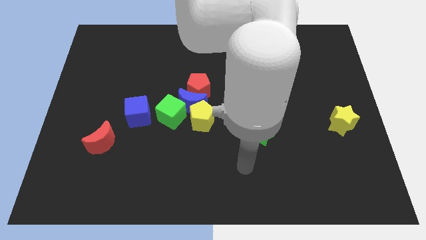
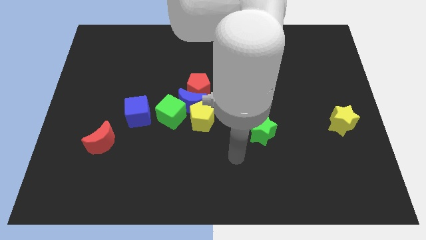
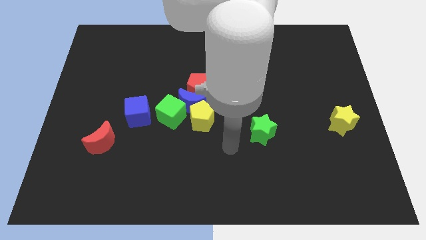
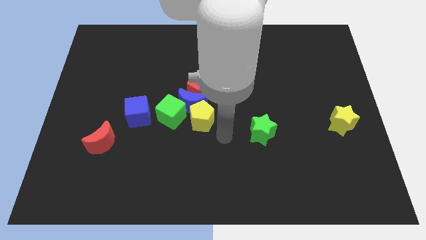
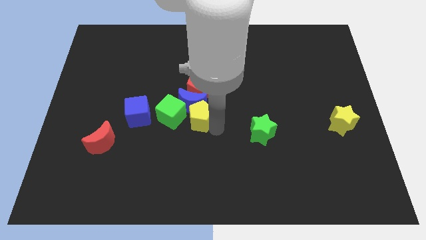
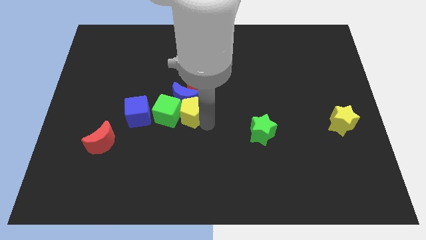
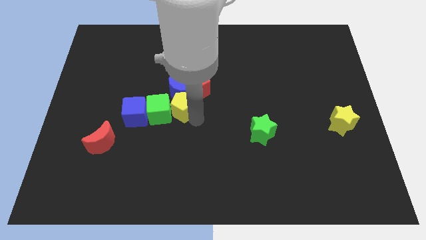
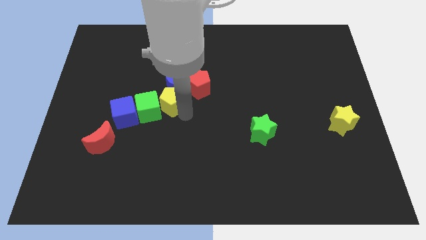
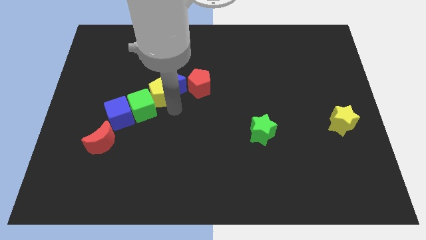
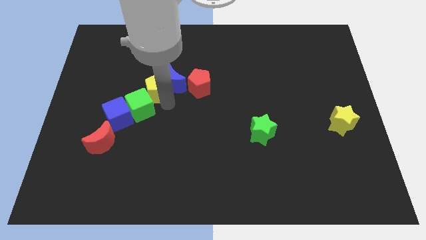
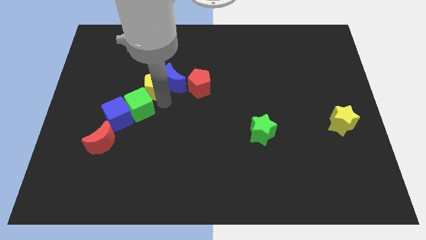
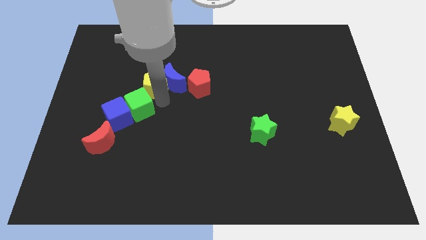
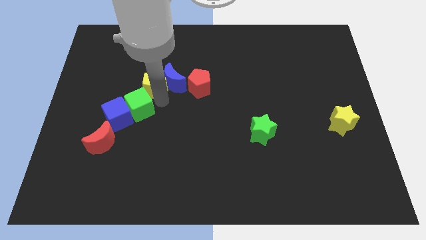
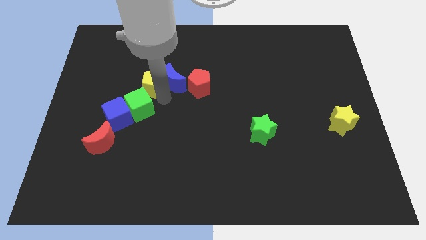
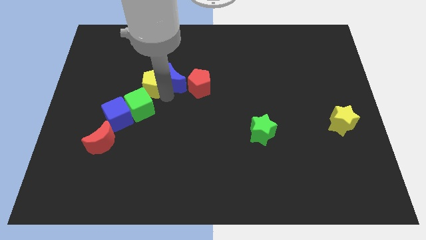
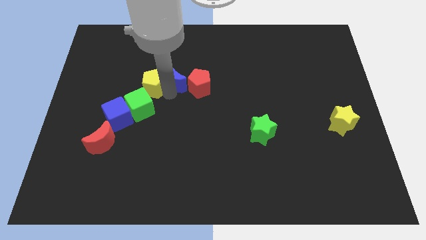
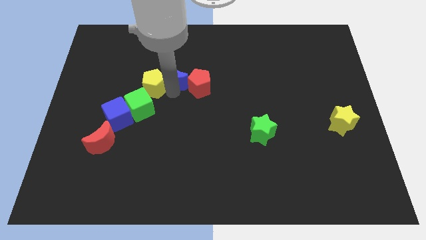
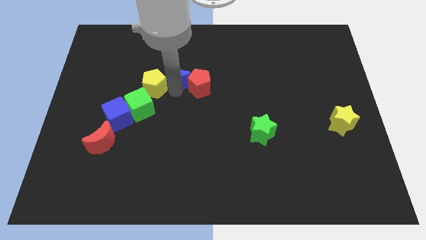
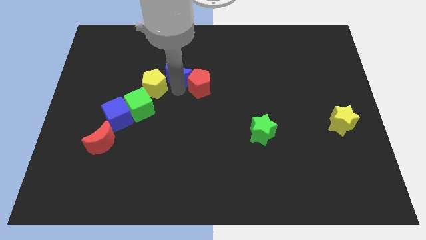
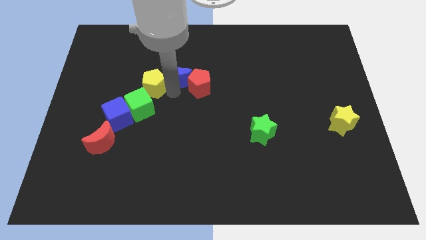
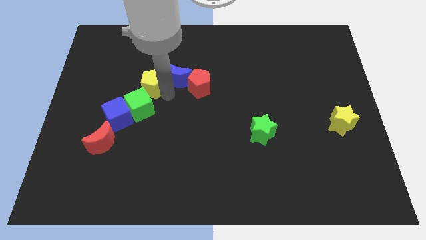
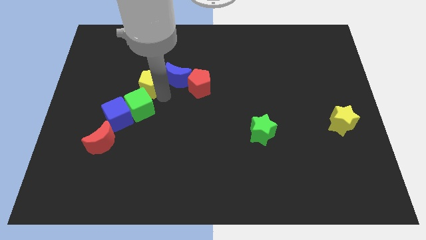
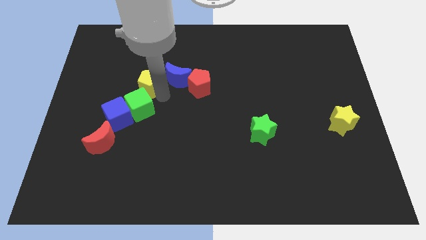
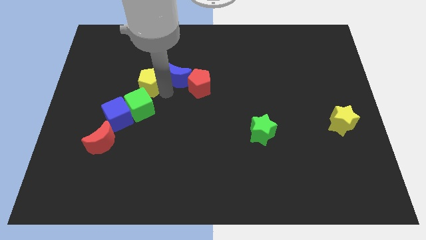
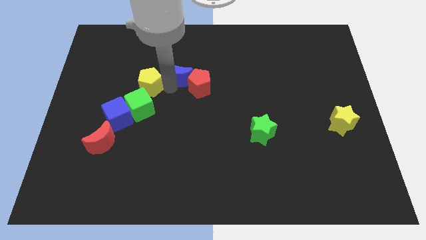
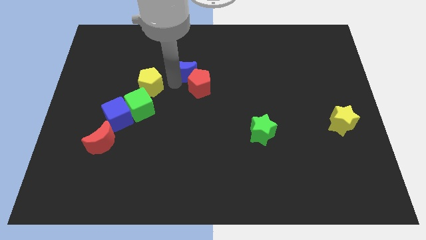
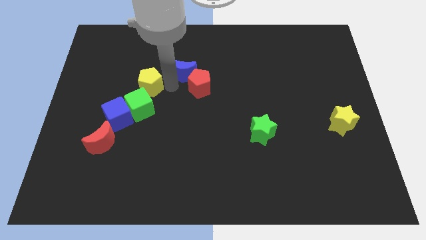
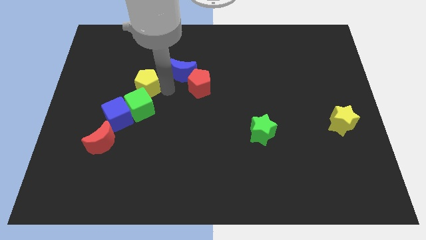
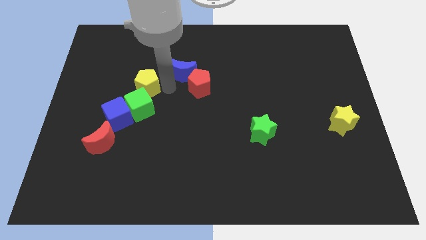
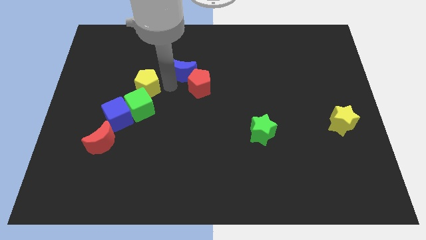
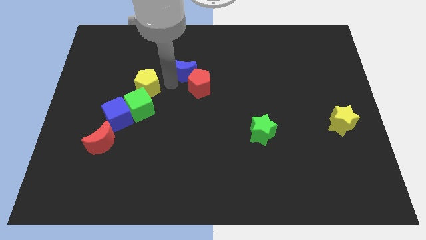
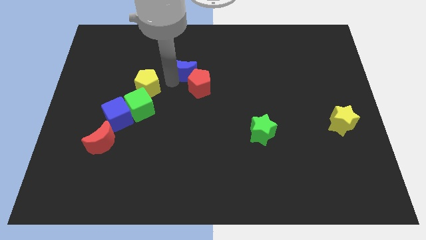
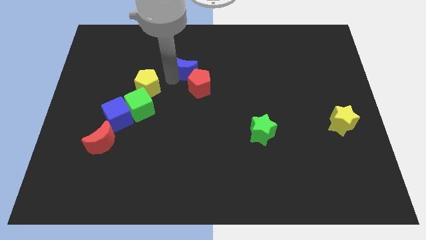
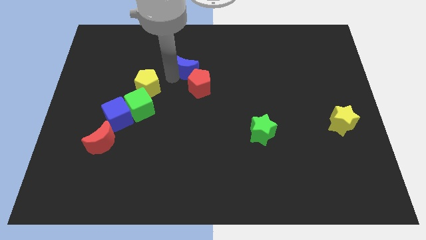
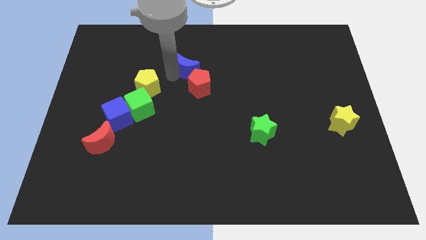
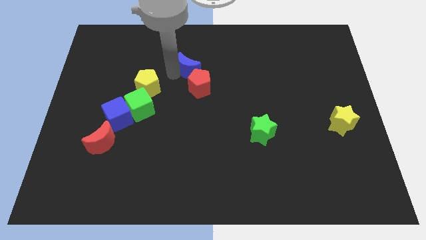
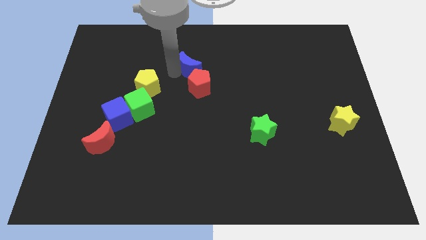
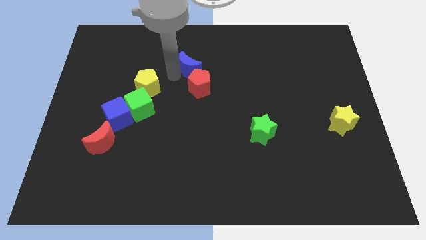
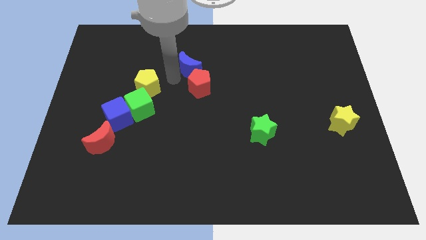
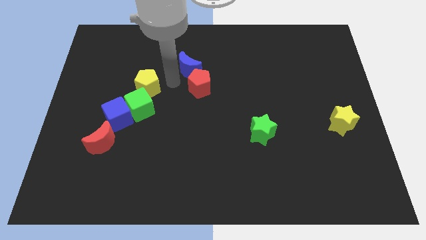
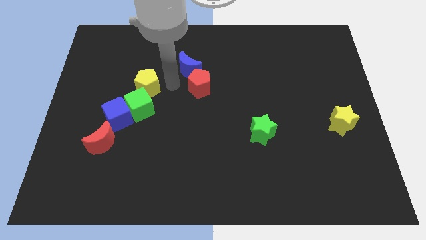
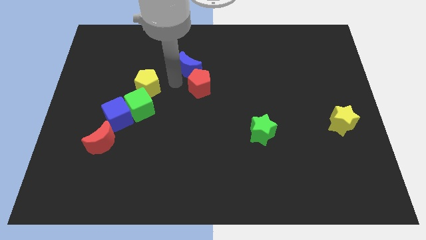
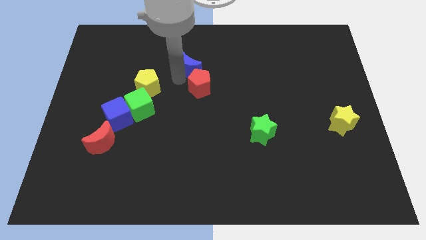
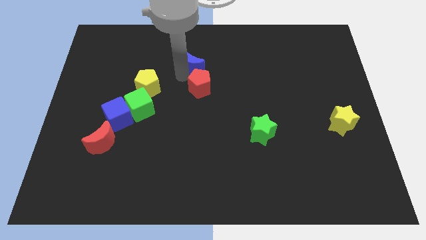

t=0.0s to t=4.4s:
pull the blue moon apart from the group

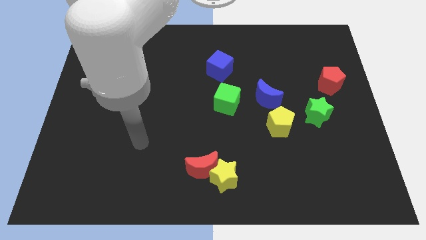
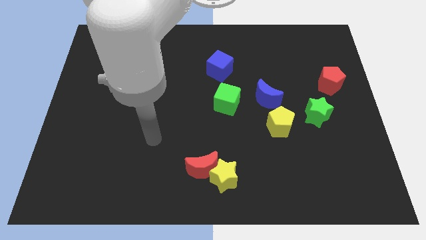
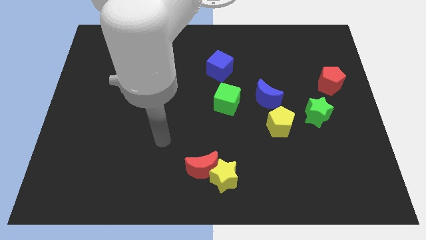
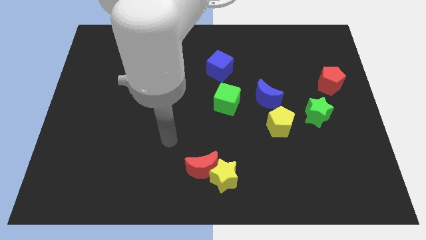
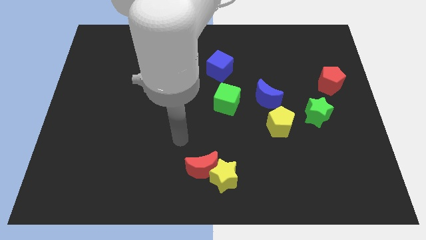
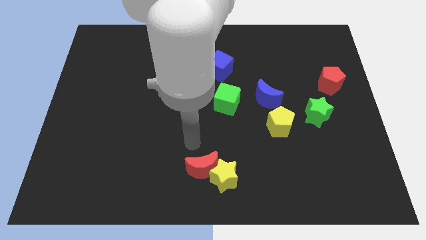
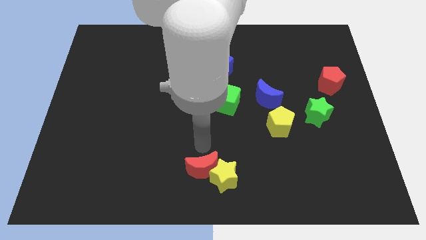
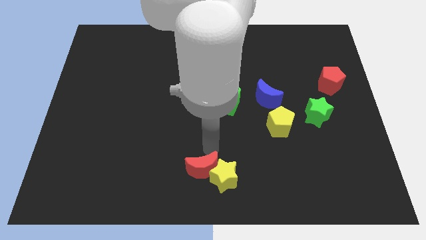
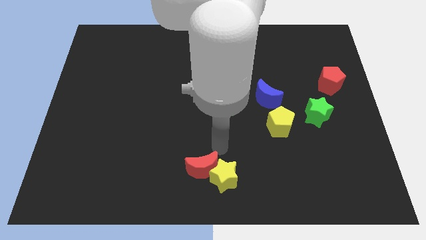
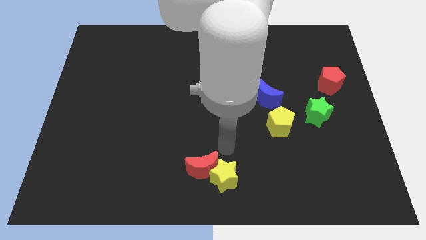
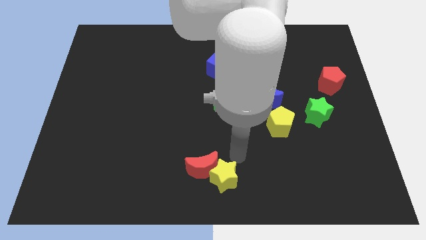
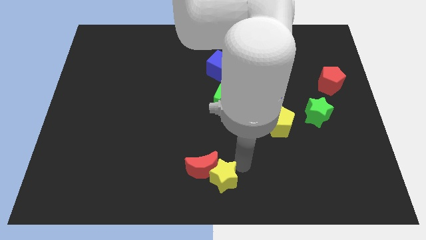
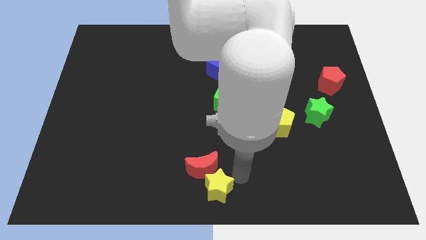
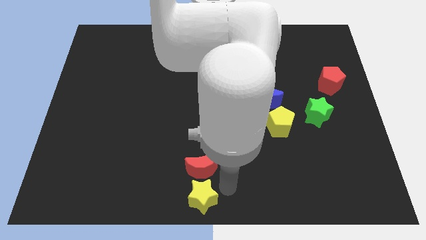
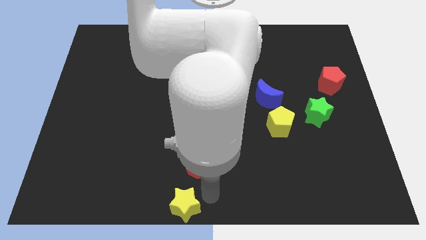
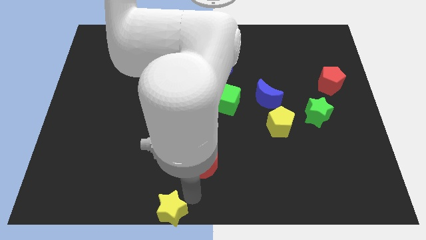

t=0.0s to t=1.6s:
separate the red moon from the yellow star

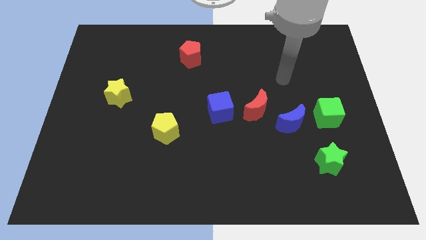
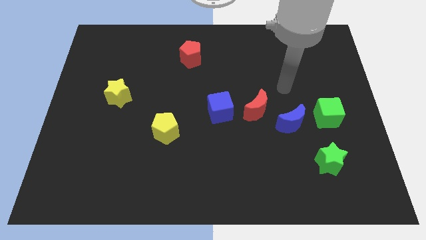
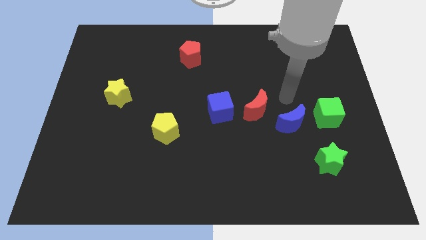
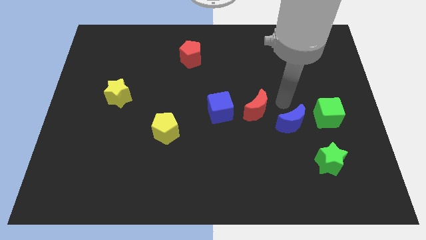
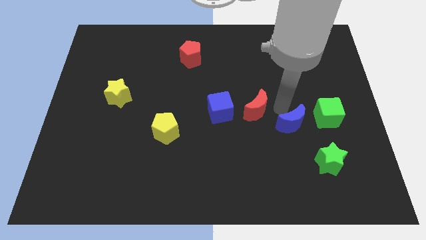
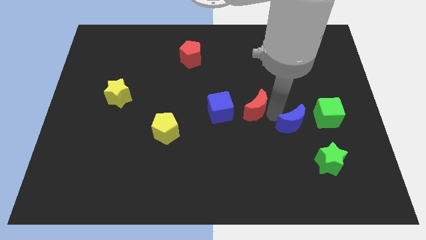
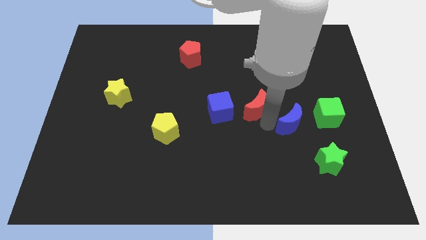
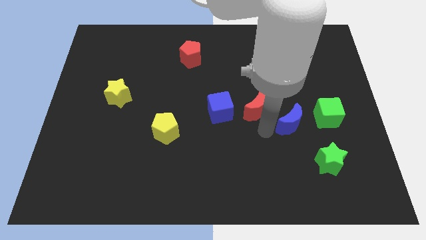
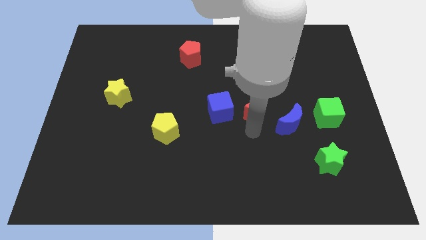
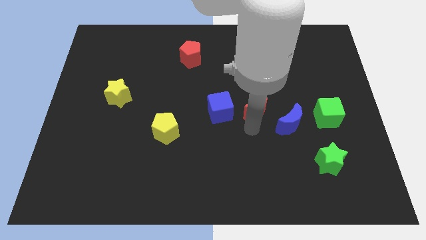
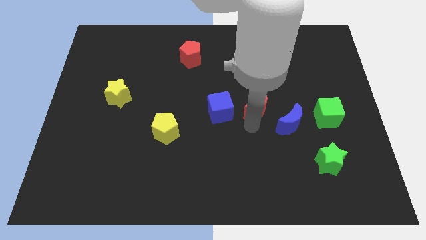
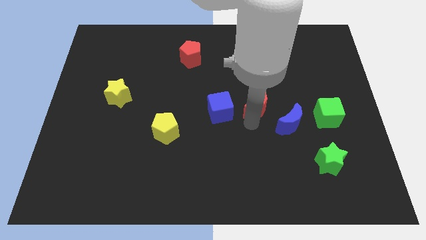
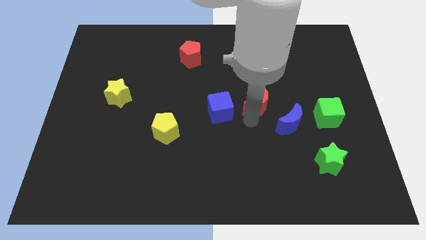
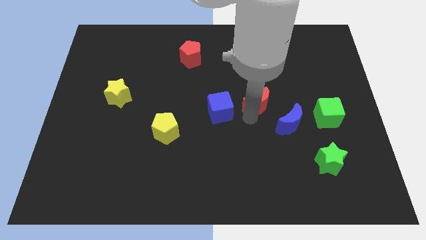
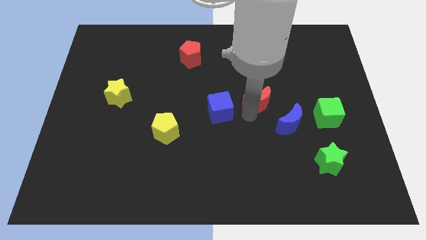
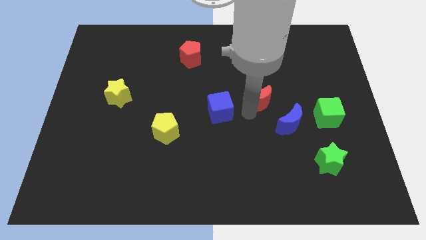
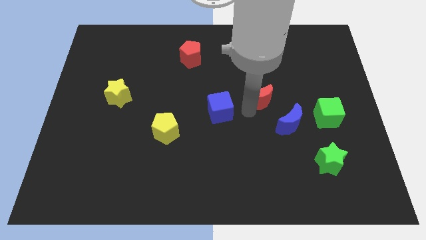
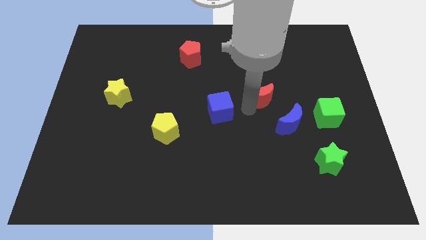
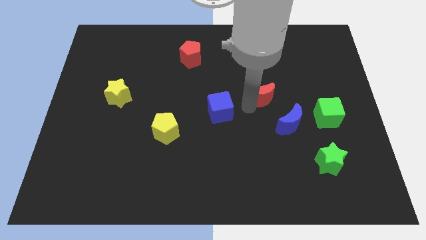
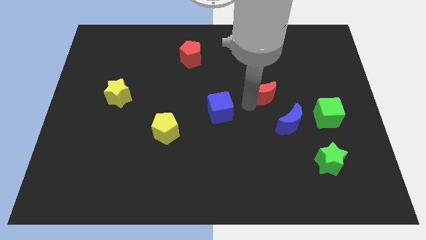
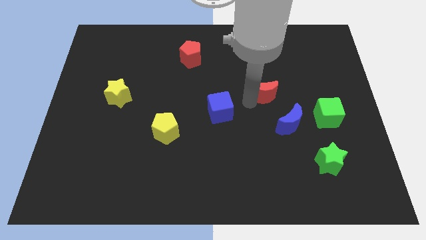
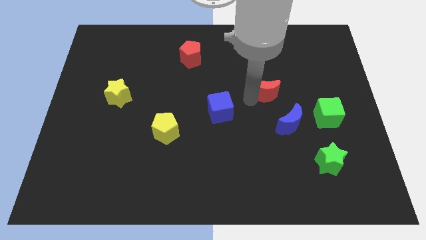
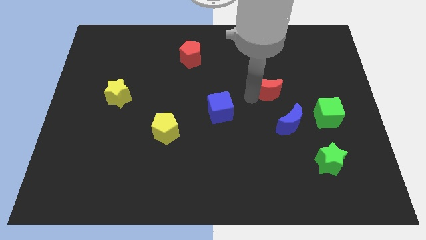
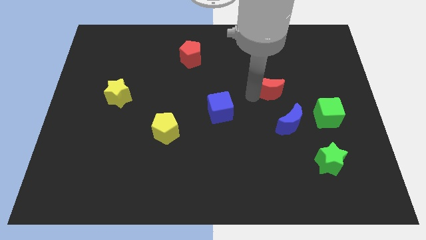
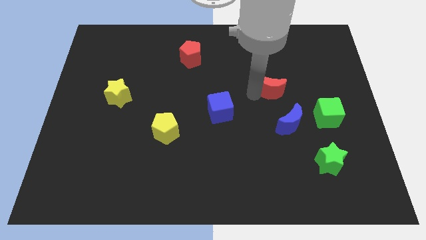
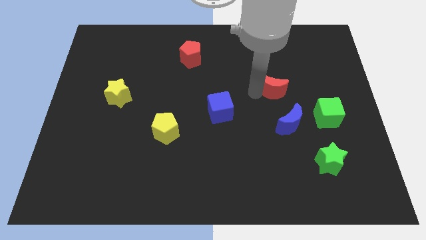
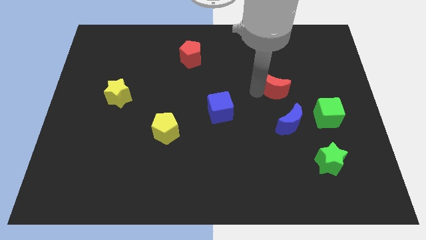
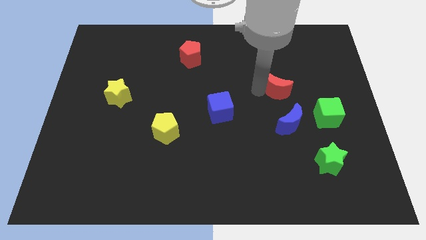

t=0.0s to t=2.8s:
separate the red moon from the blue moon and blue cube

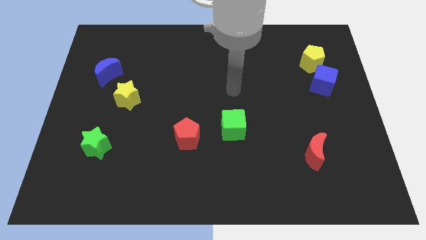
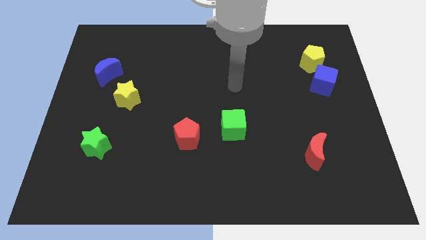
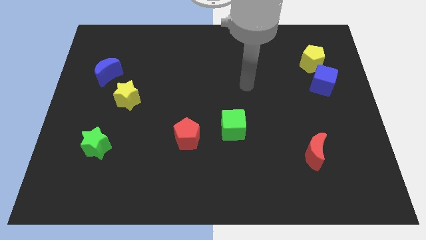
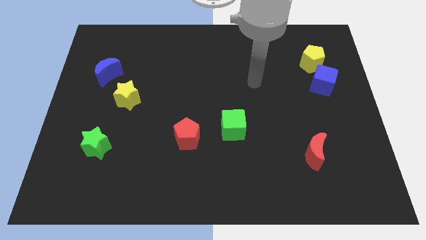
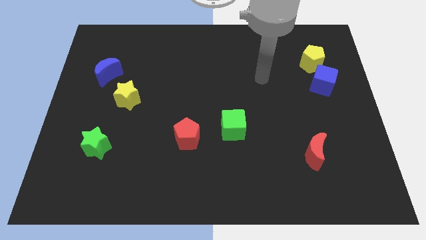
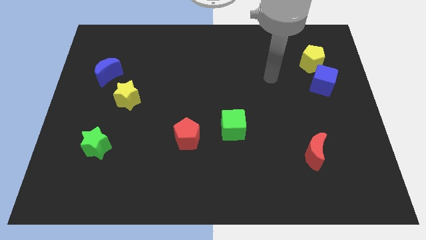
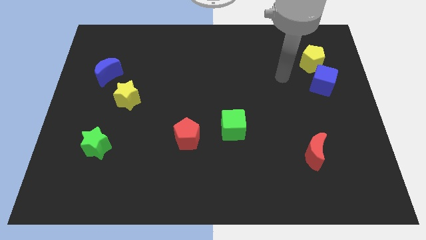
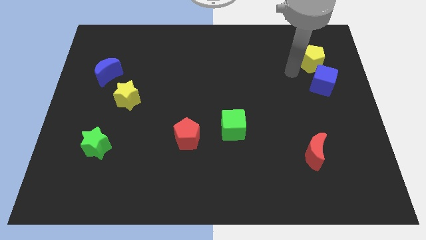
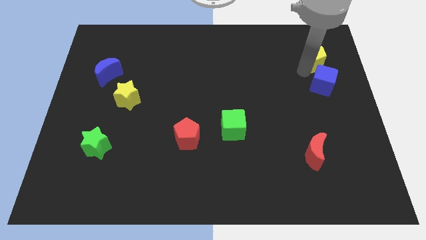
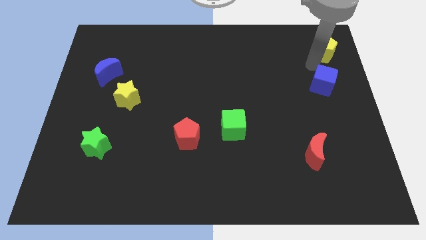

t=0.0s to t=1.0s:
separate the blue cube from the yellow pentagon
